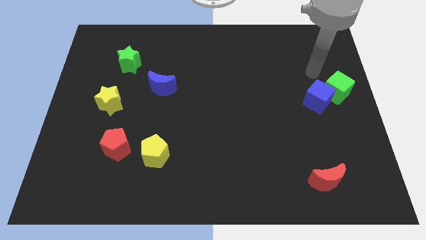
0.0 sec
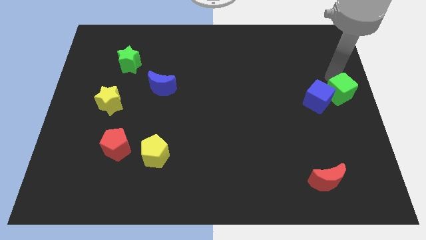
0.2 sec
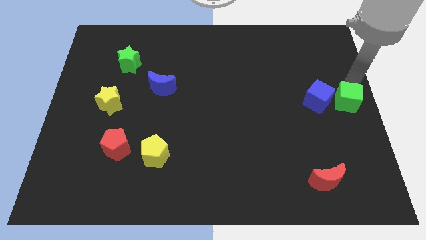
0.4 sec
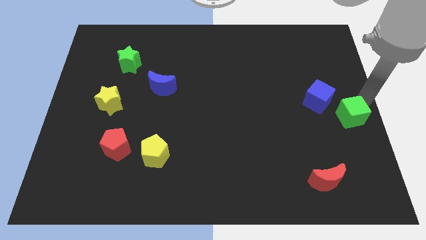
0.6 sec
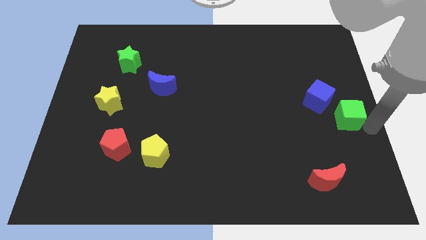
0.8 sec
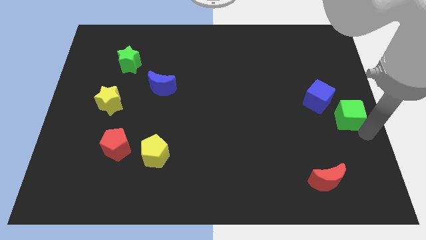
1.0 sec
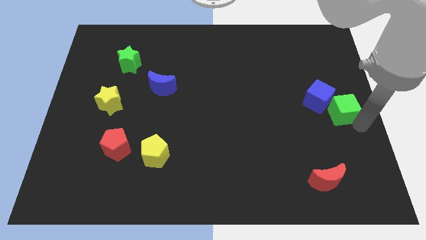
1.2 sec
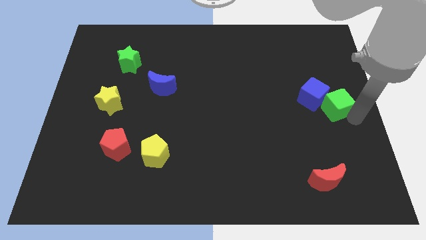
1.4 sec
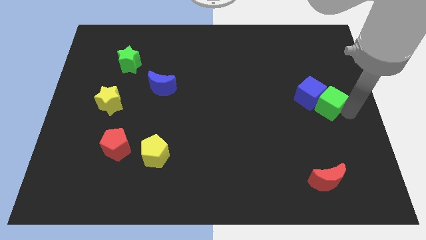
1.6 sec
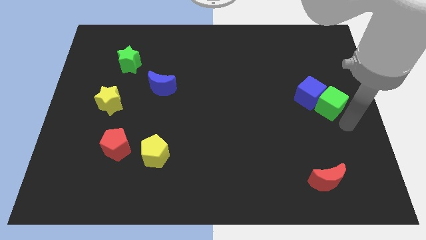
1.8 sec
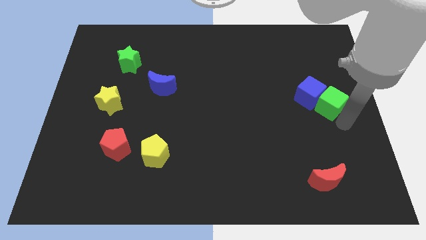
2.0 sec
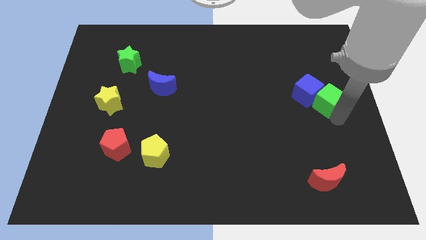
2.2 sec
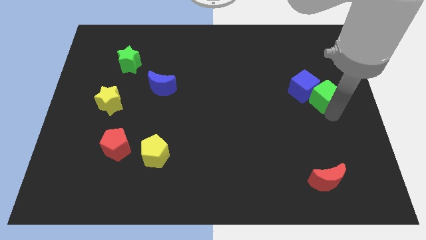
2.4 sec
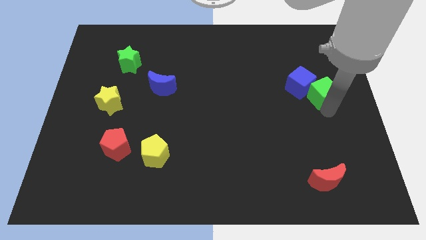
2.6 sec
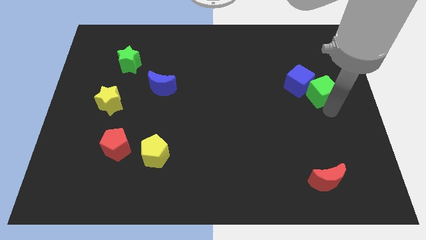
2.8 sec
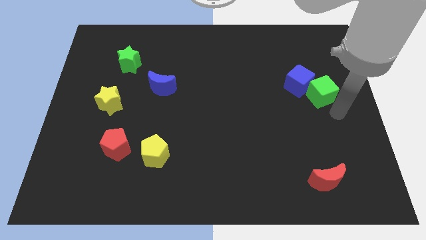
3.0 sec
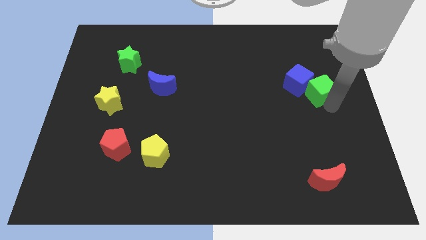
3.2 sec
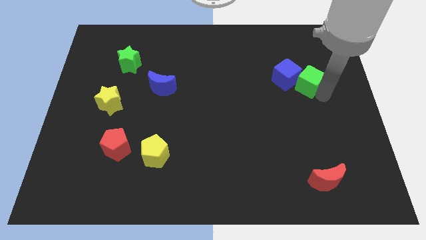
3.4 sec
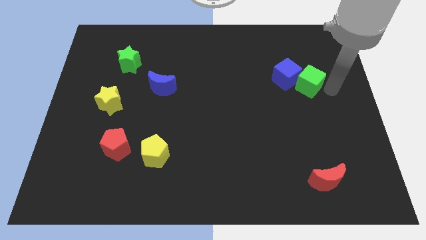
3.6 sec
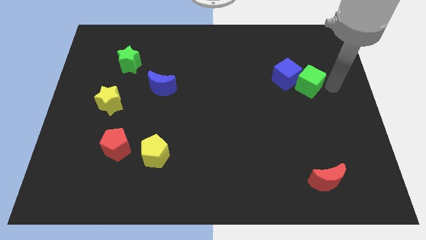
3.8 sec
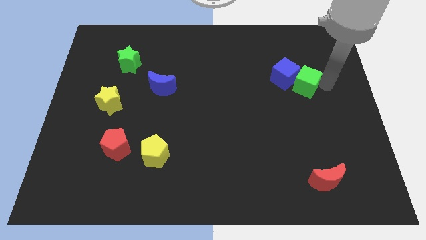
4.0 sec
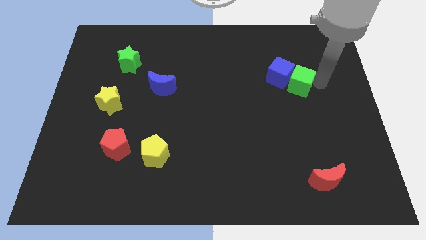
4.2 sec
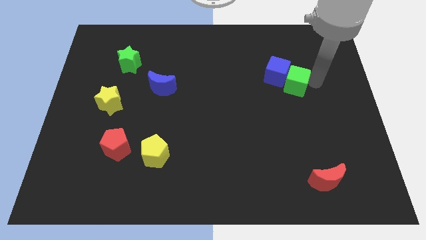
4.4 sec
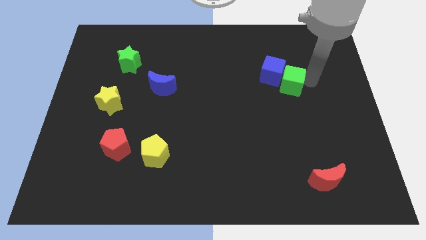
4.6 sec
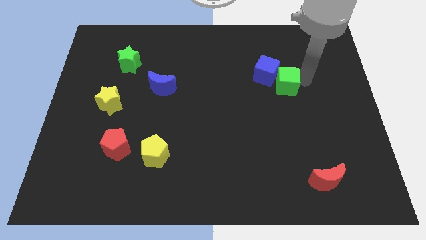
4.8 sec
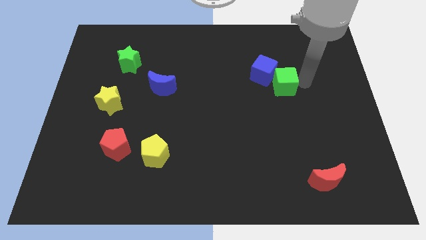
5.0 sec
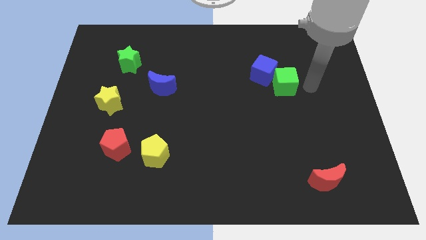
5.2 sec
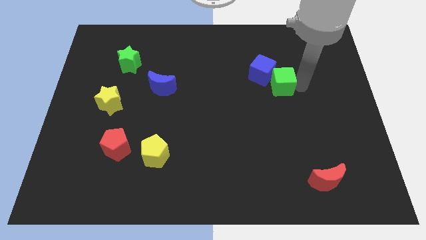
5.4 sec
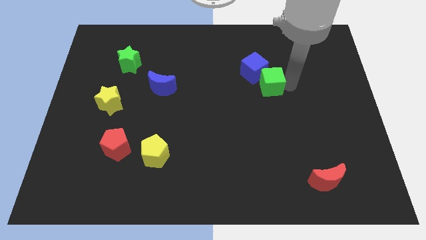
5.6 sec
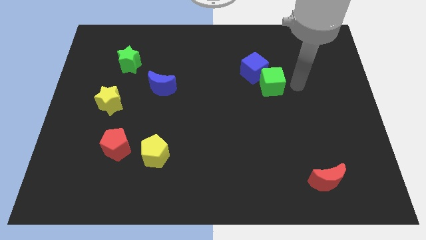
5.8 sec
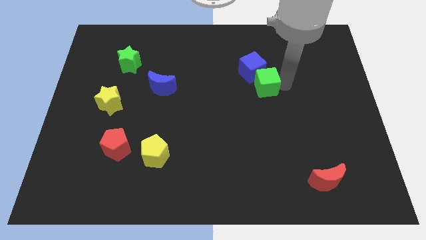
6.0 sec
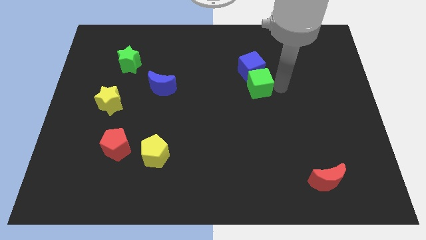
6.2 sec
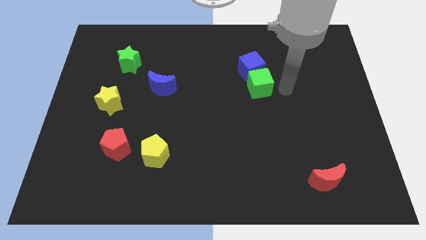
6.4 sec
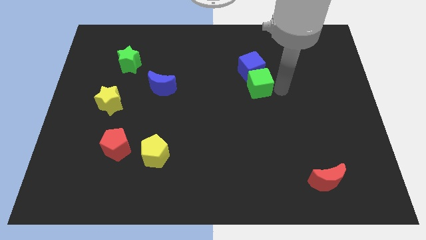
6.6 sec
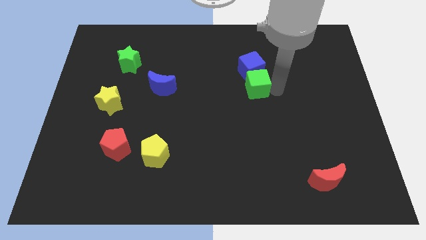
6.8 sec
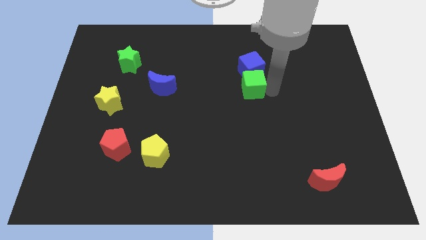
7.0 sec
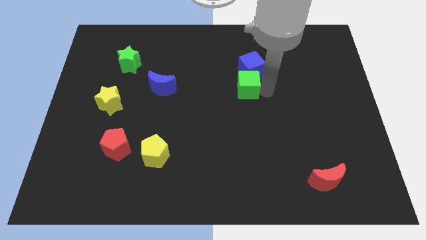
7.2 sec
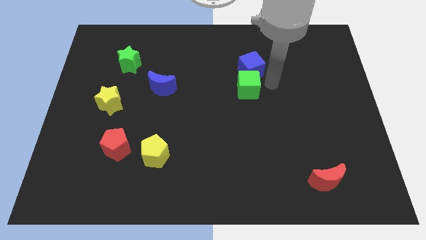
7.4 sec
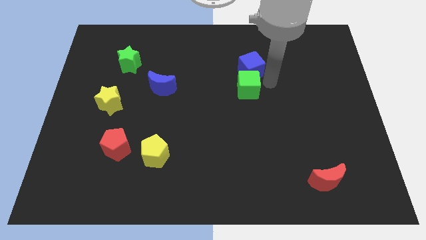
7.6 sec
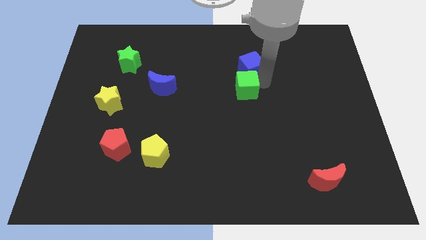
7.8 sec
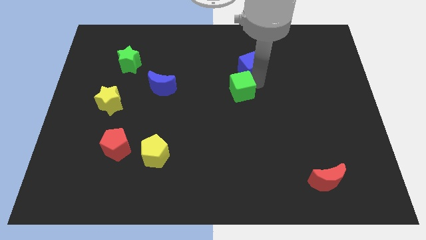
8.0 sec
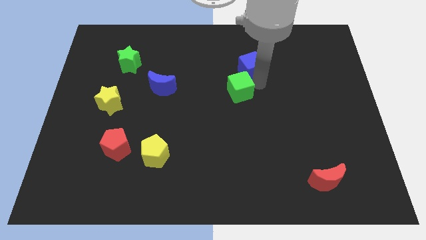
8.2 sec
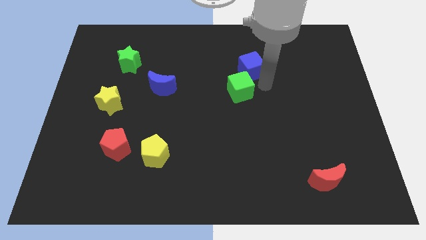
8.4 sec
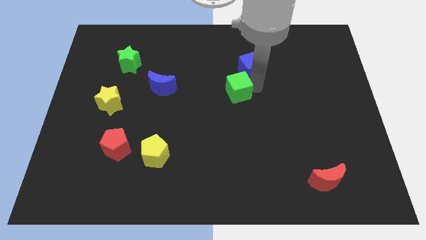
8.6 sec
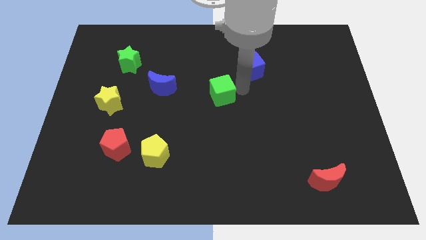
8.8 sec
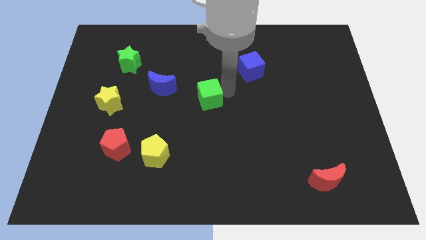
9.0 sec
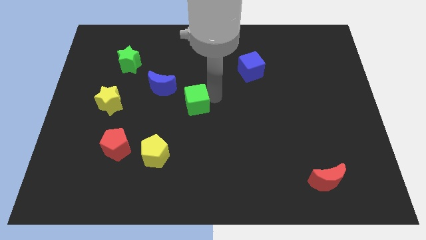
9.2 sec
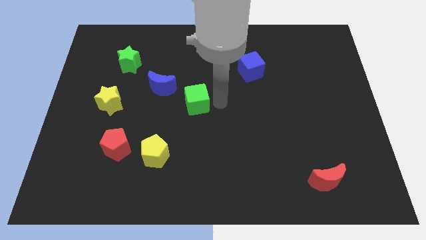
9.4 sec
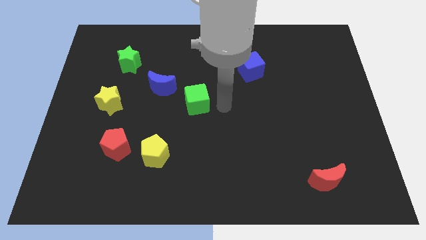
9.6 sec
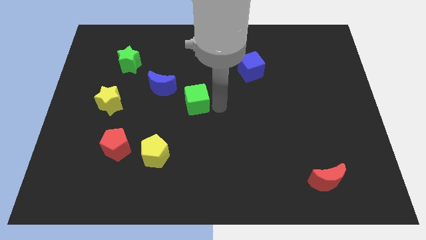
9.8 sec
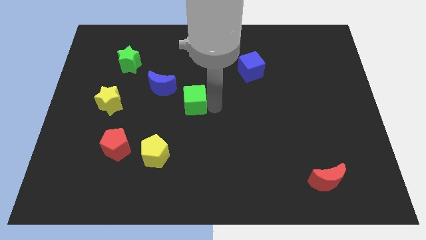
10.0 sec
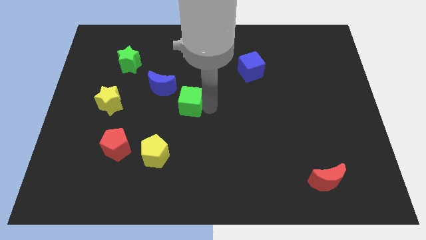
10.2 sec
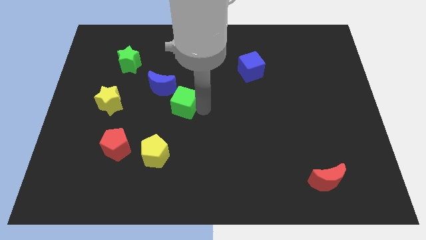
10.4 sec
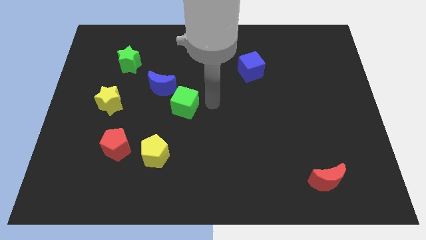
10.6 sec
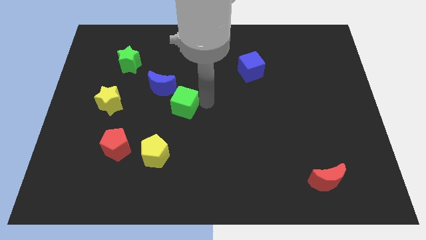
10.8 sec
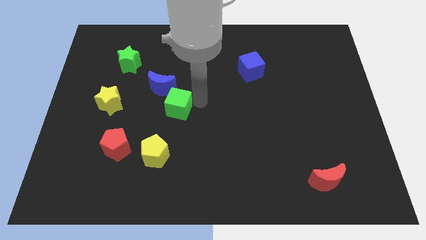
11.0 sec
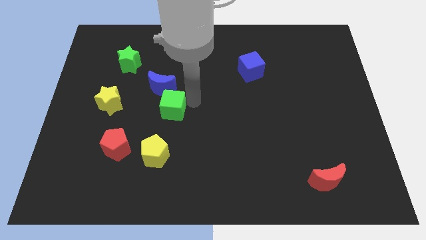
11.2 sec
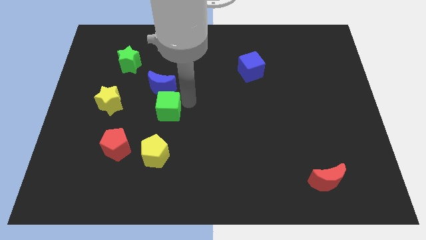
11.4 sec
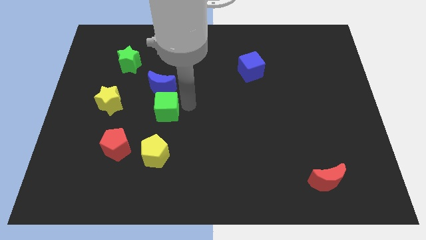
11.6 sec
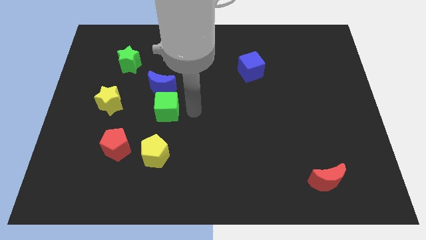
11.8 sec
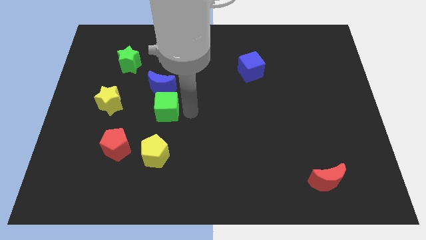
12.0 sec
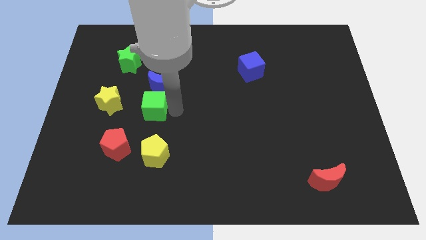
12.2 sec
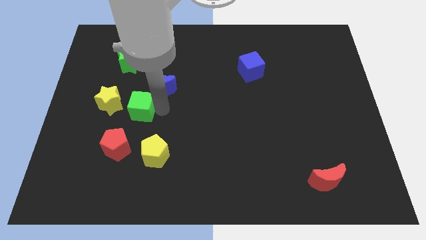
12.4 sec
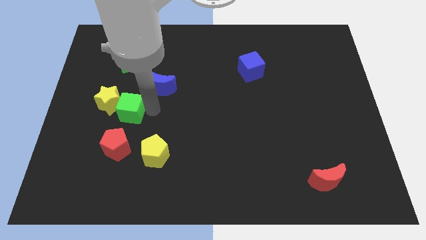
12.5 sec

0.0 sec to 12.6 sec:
put the green cube to the yellow star

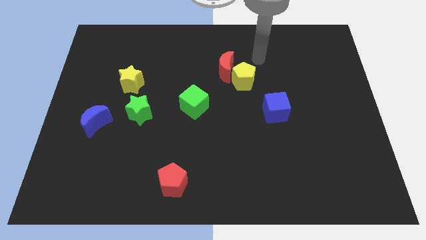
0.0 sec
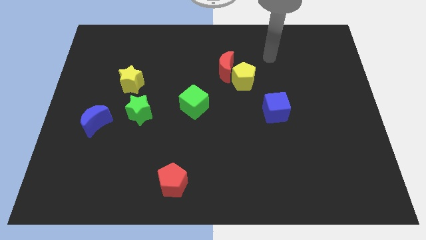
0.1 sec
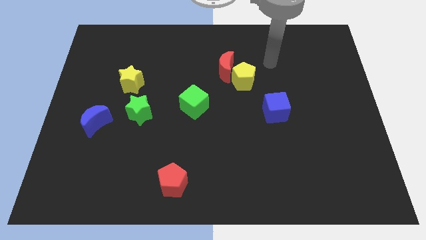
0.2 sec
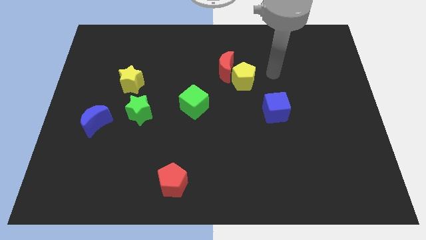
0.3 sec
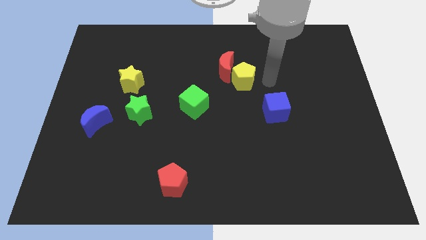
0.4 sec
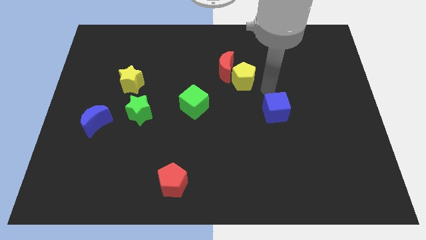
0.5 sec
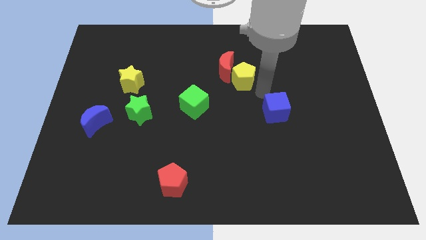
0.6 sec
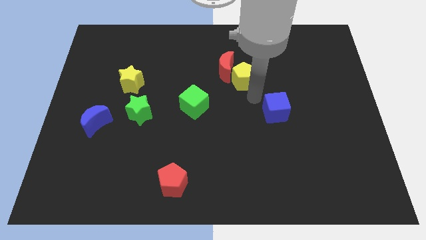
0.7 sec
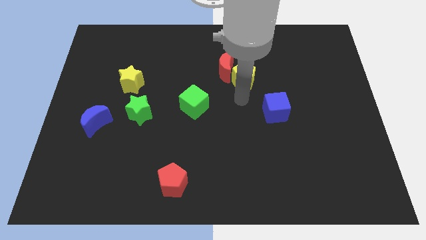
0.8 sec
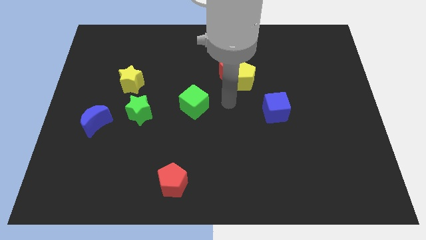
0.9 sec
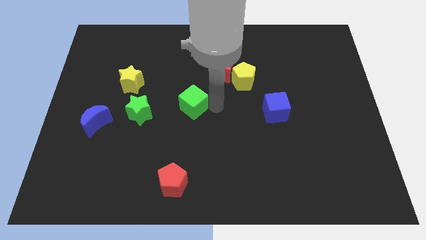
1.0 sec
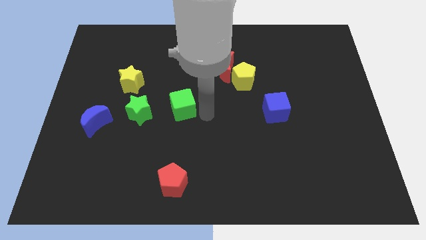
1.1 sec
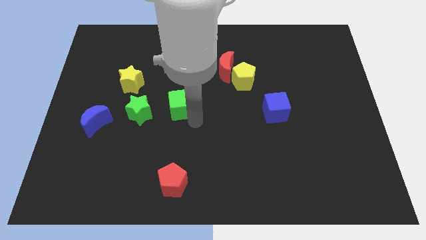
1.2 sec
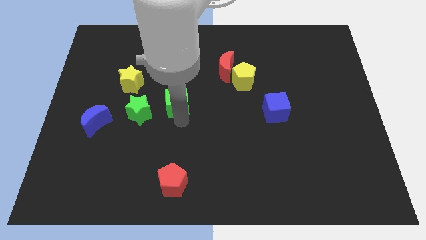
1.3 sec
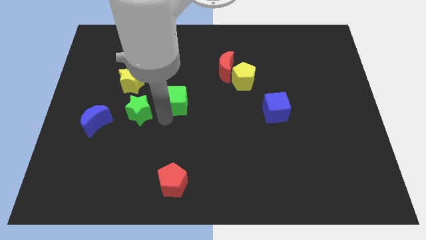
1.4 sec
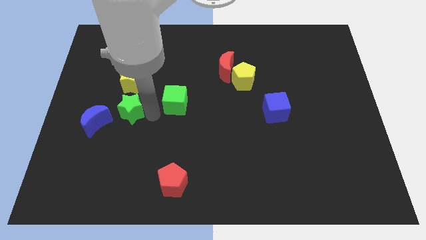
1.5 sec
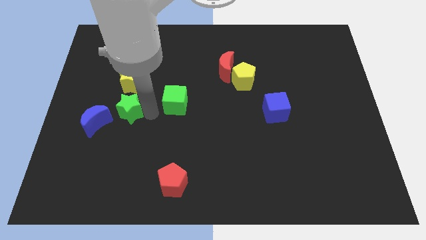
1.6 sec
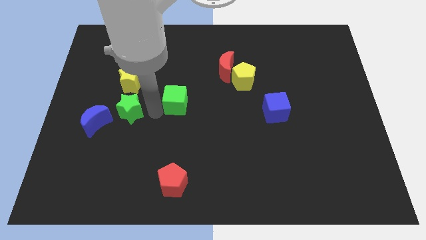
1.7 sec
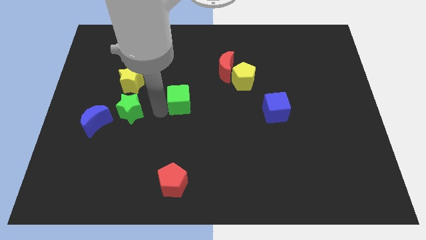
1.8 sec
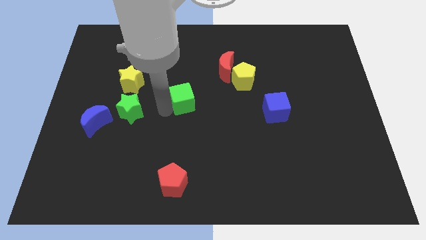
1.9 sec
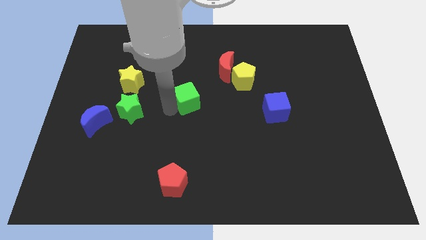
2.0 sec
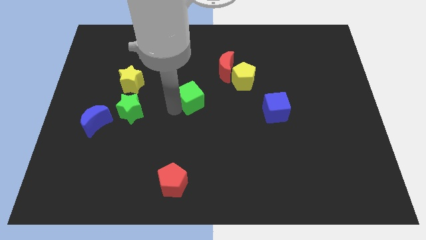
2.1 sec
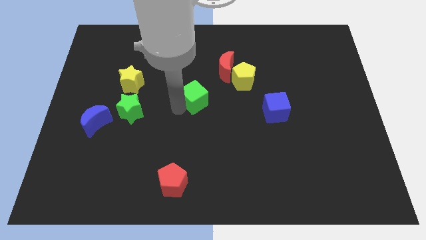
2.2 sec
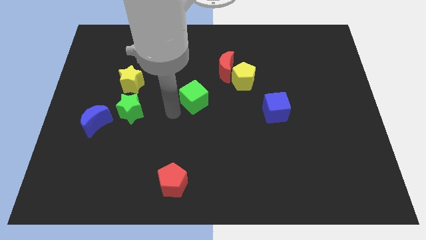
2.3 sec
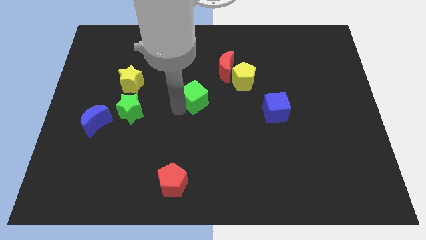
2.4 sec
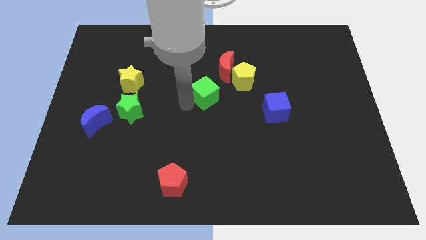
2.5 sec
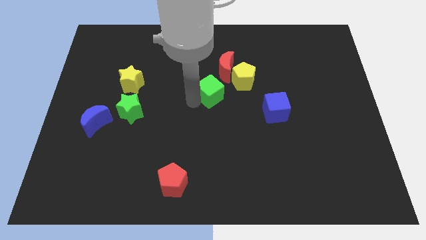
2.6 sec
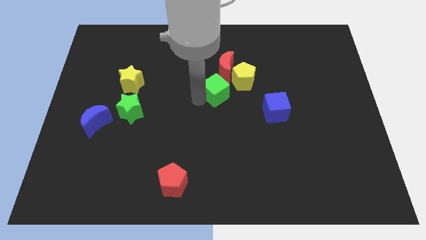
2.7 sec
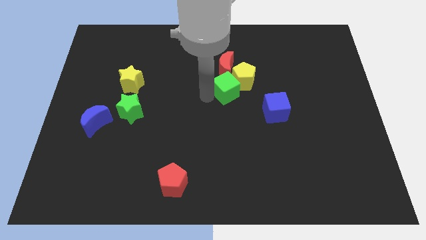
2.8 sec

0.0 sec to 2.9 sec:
move the green cube close to the yellow pentagon
